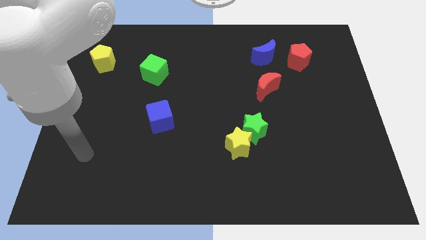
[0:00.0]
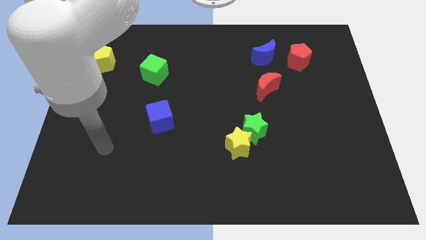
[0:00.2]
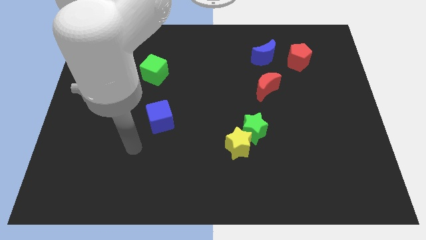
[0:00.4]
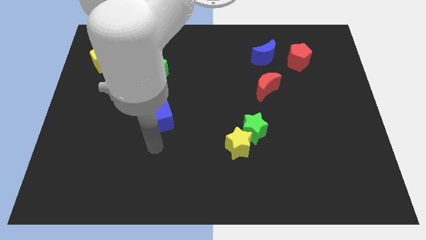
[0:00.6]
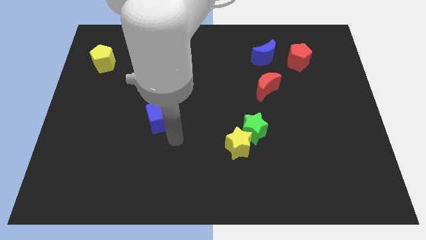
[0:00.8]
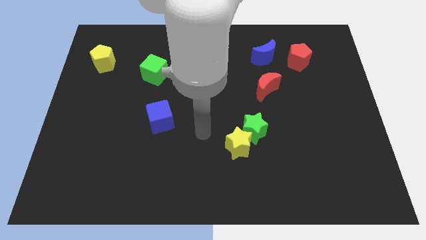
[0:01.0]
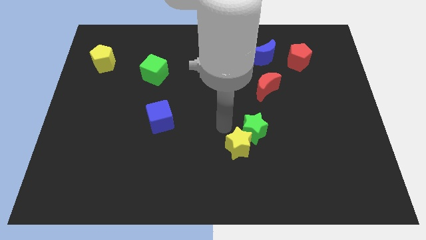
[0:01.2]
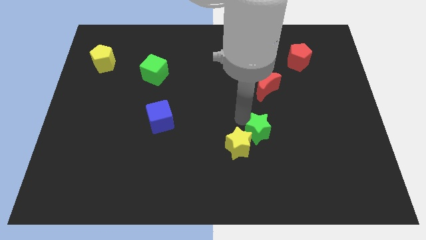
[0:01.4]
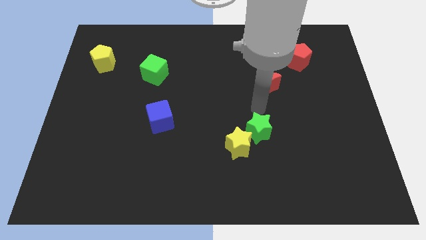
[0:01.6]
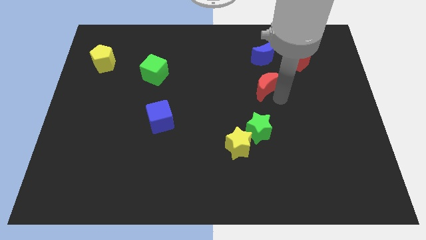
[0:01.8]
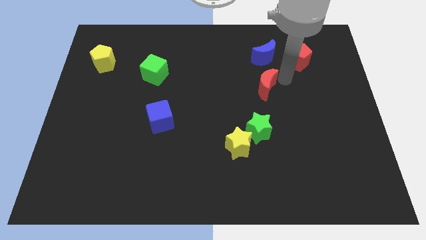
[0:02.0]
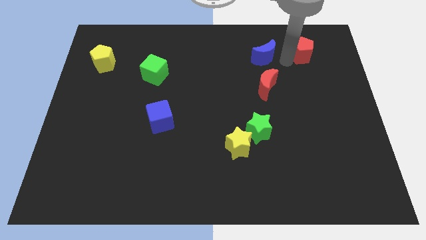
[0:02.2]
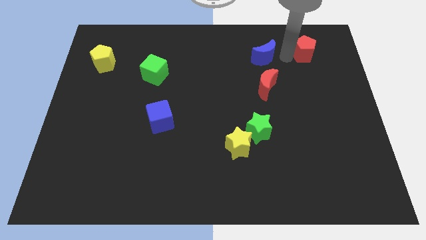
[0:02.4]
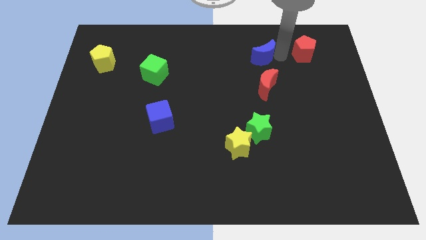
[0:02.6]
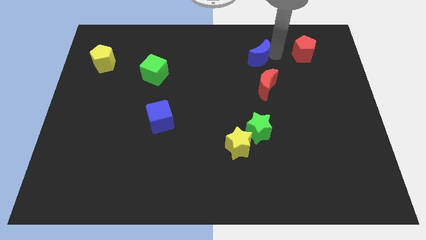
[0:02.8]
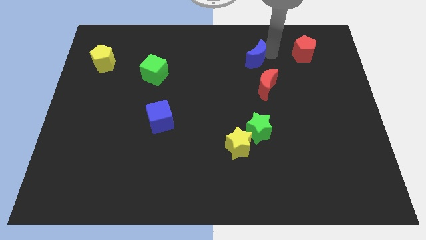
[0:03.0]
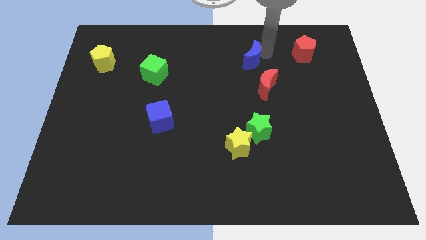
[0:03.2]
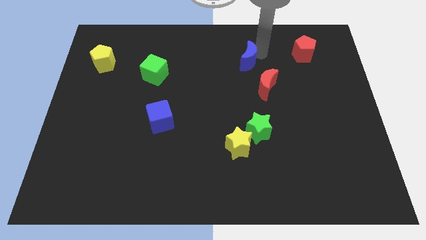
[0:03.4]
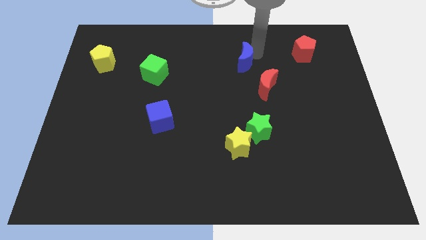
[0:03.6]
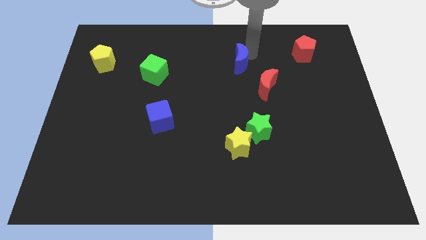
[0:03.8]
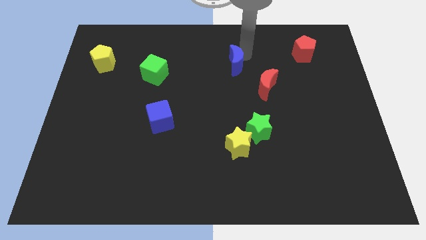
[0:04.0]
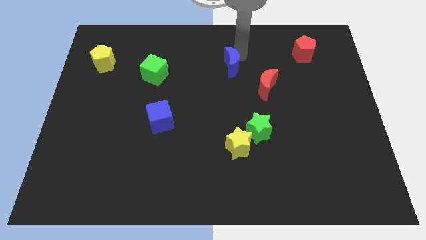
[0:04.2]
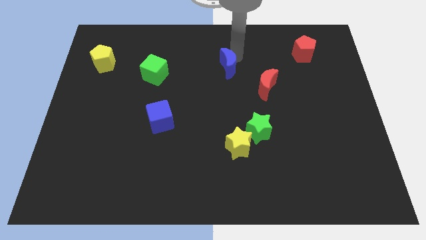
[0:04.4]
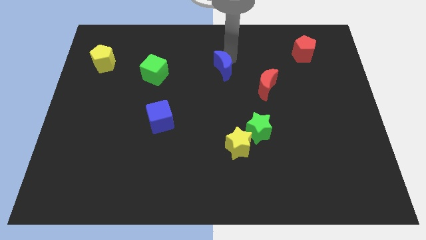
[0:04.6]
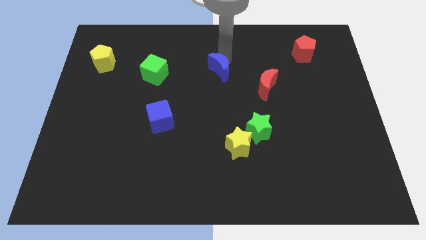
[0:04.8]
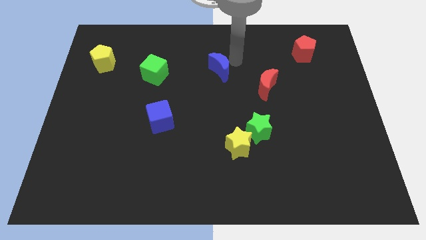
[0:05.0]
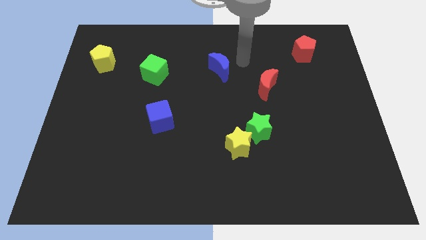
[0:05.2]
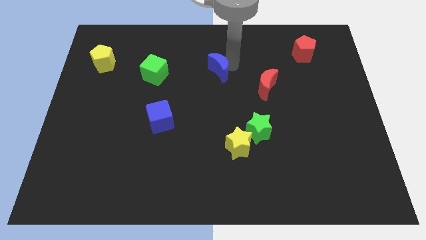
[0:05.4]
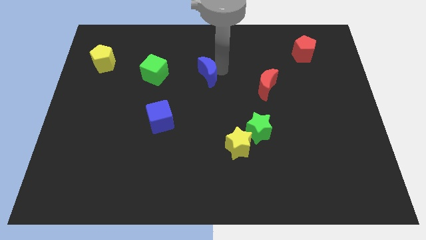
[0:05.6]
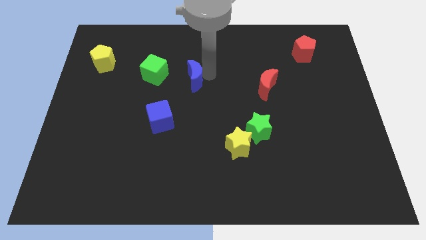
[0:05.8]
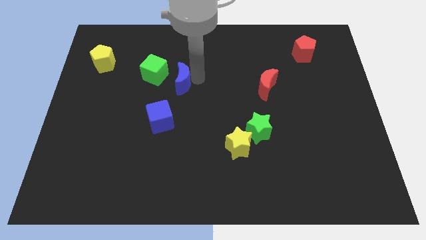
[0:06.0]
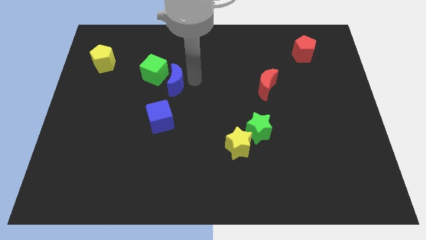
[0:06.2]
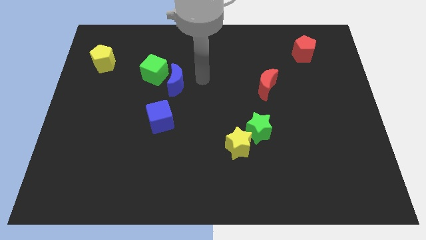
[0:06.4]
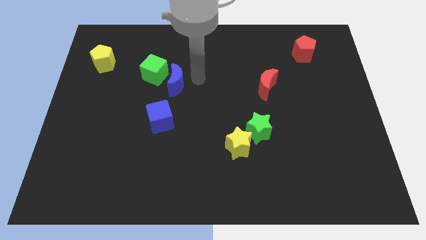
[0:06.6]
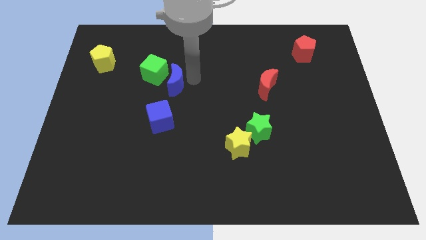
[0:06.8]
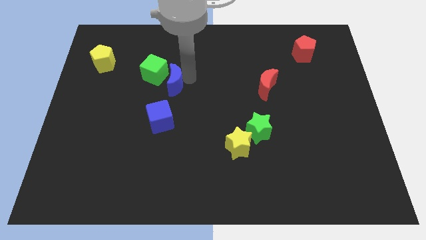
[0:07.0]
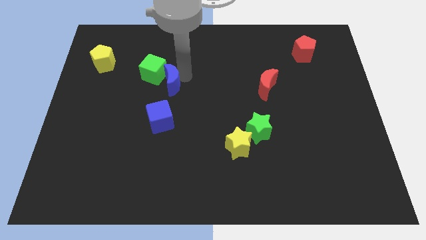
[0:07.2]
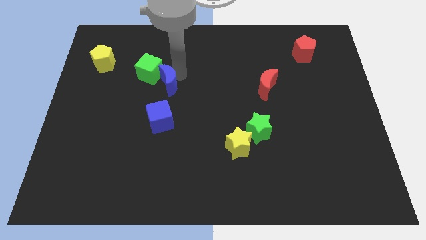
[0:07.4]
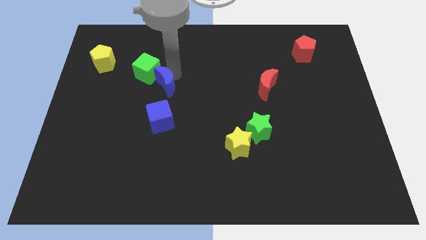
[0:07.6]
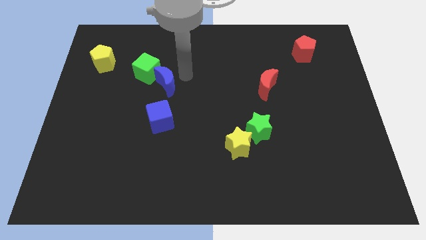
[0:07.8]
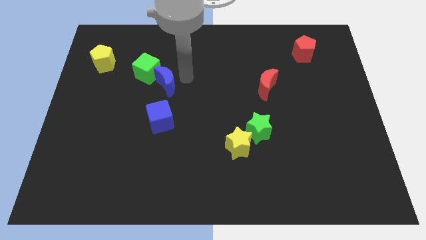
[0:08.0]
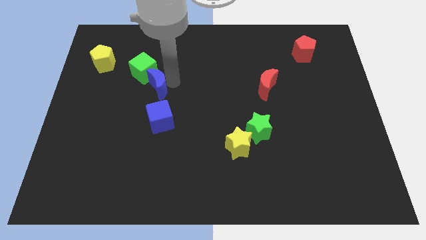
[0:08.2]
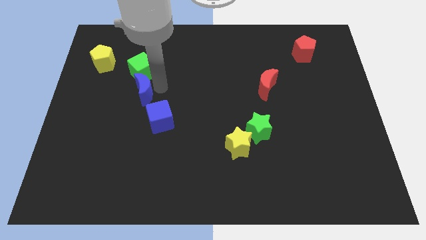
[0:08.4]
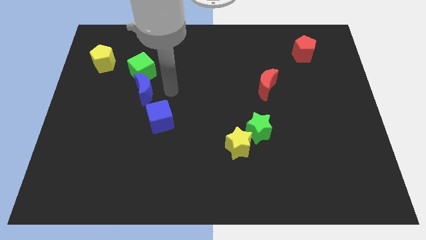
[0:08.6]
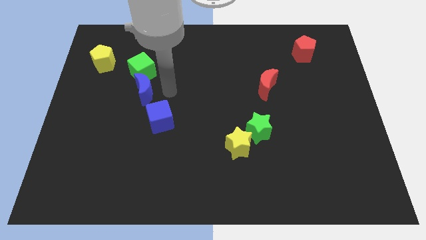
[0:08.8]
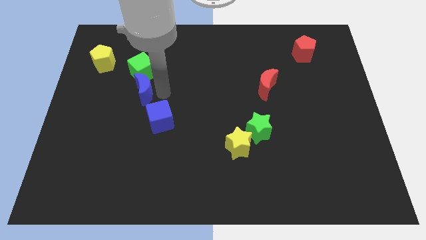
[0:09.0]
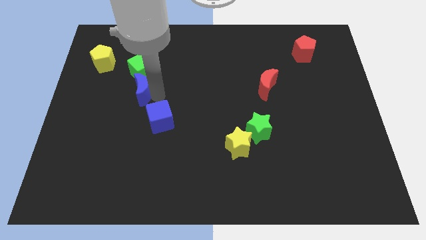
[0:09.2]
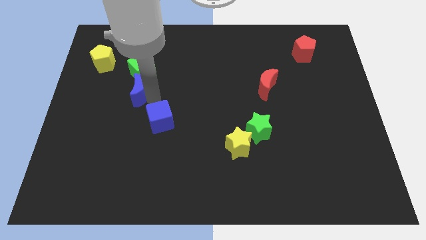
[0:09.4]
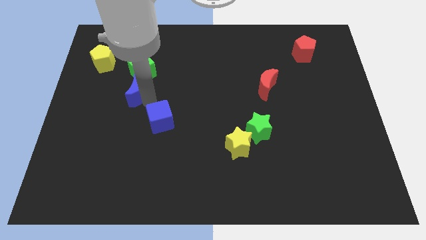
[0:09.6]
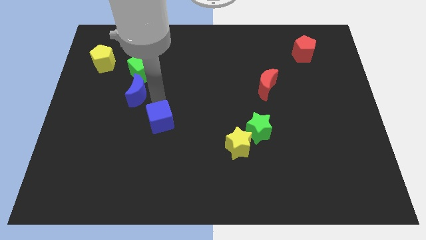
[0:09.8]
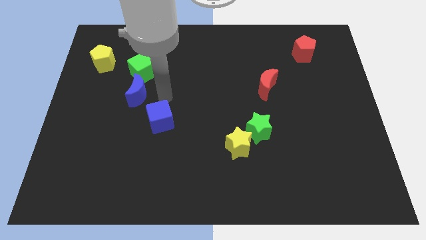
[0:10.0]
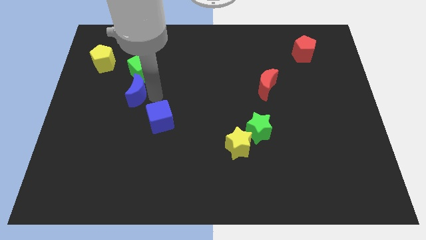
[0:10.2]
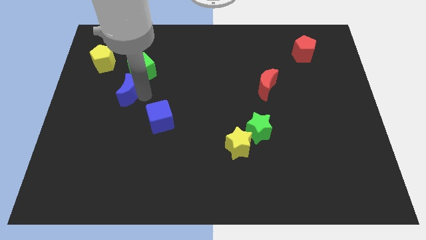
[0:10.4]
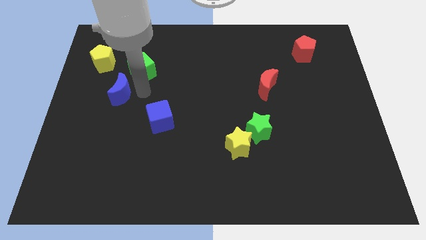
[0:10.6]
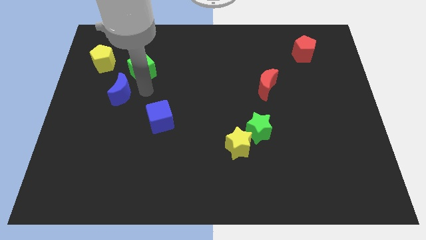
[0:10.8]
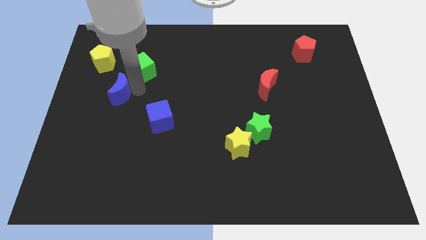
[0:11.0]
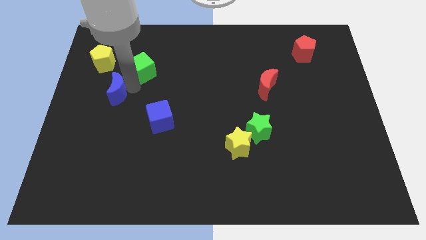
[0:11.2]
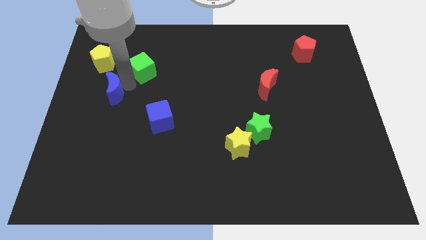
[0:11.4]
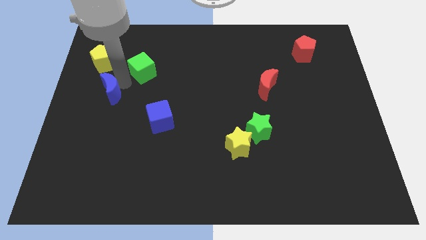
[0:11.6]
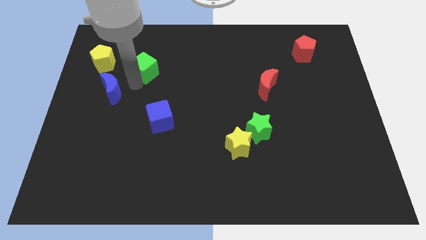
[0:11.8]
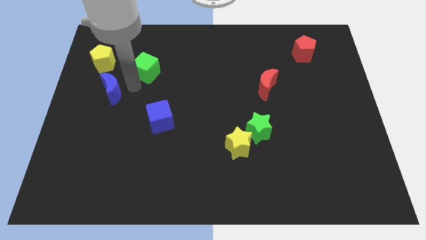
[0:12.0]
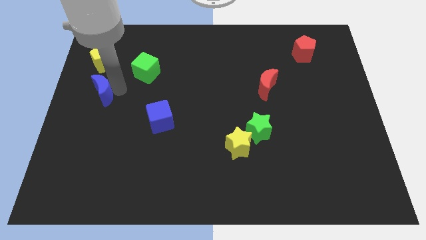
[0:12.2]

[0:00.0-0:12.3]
put the blue moon to the center left
